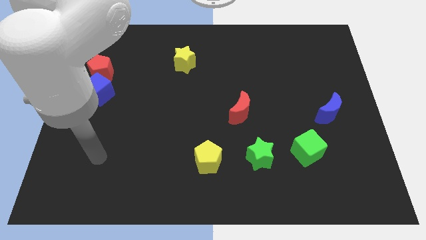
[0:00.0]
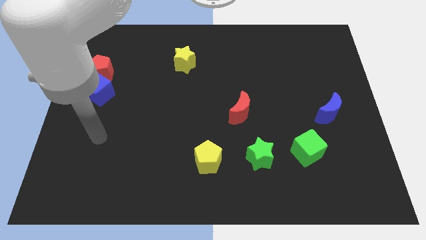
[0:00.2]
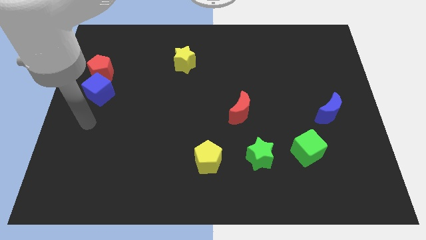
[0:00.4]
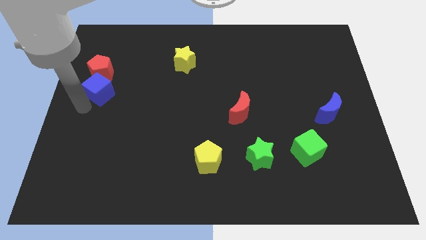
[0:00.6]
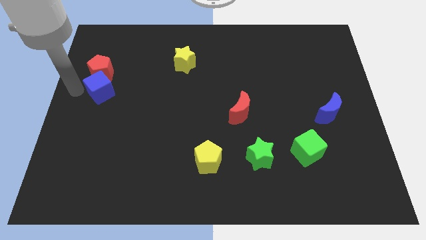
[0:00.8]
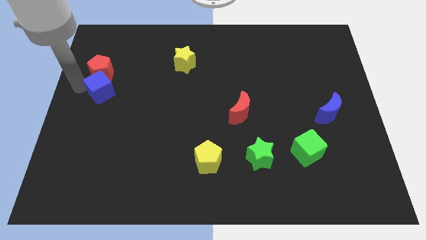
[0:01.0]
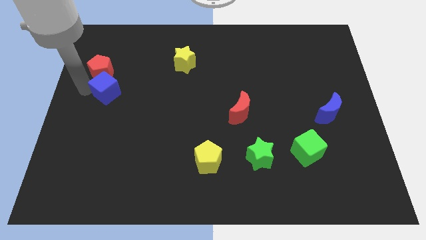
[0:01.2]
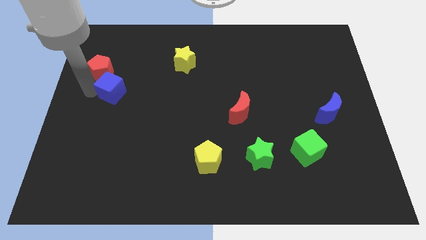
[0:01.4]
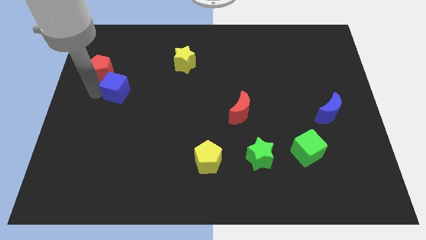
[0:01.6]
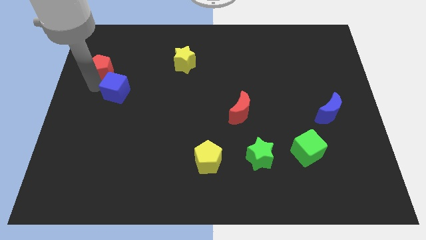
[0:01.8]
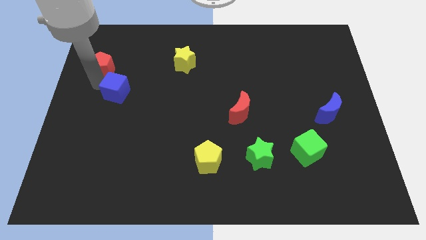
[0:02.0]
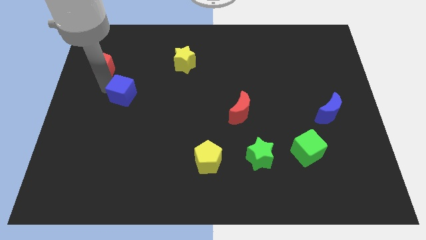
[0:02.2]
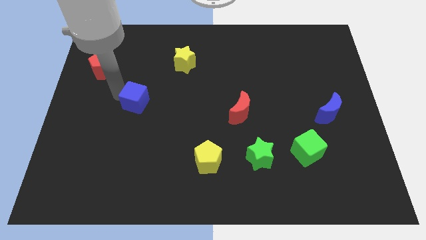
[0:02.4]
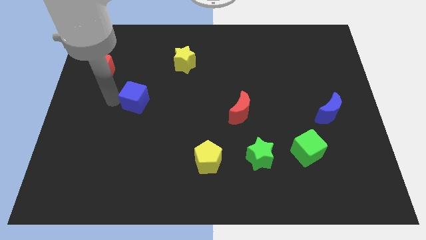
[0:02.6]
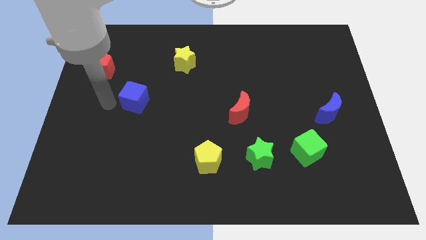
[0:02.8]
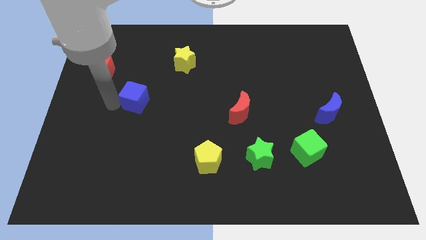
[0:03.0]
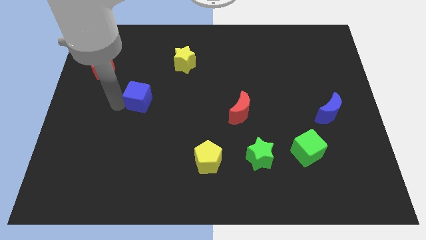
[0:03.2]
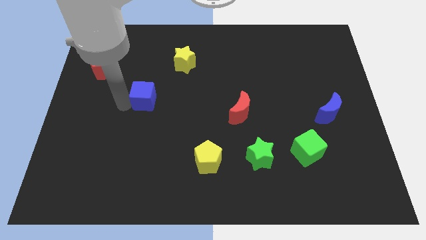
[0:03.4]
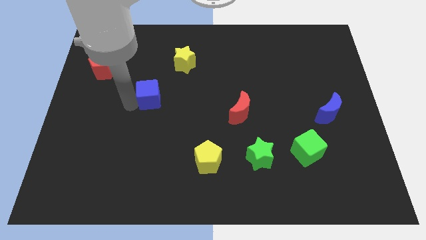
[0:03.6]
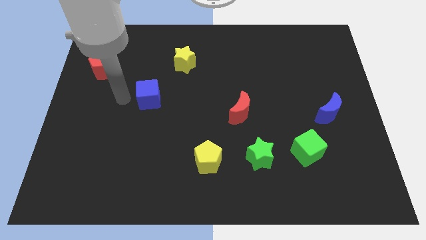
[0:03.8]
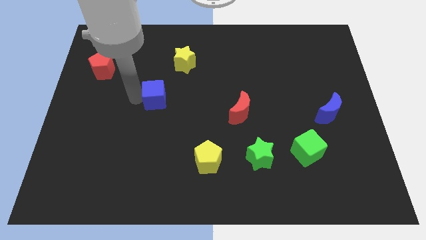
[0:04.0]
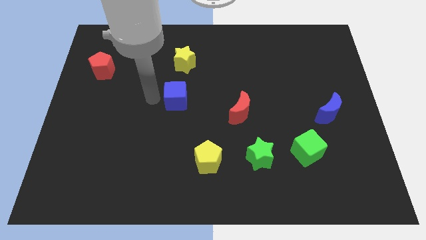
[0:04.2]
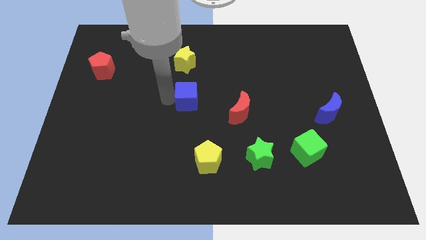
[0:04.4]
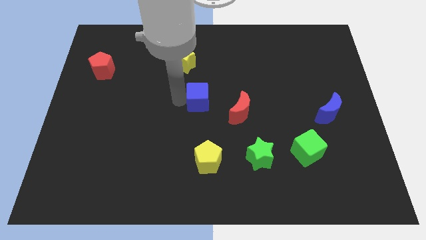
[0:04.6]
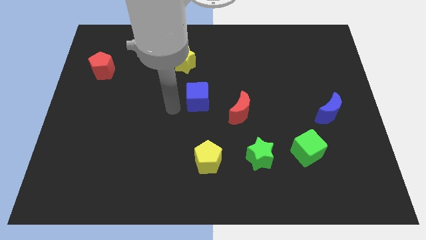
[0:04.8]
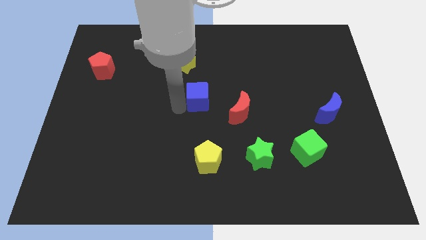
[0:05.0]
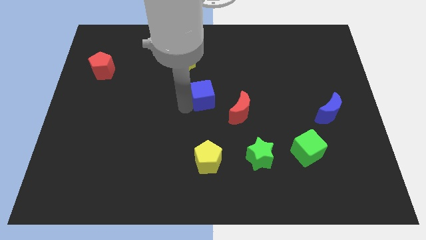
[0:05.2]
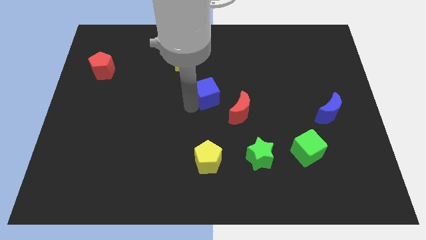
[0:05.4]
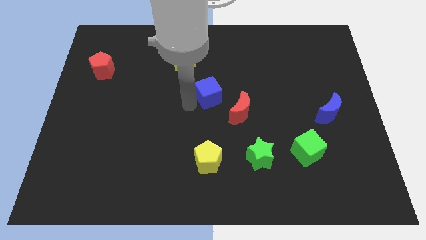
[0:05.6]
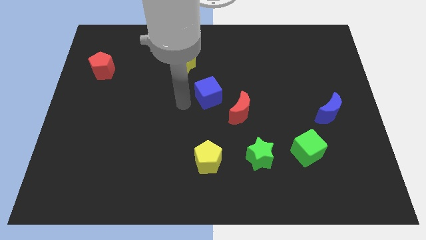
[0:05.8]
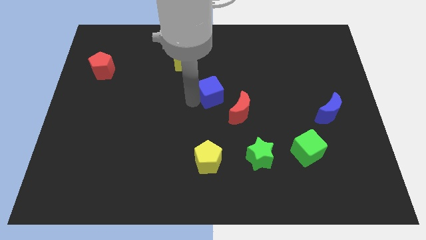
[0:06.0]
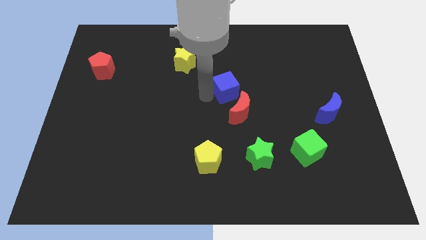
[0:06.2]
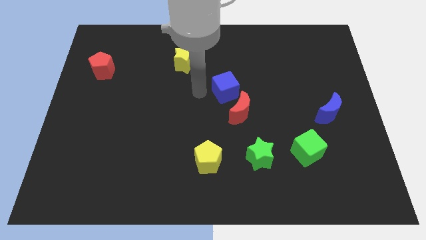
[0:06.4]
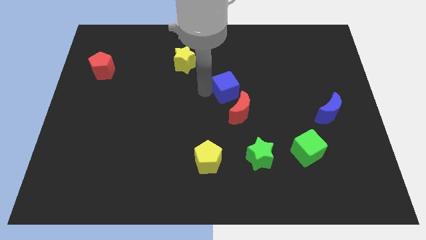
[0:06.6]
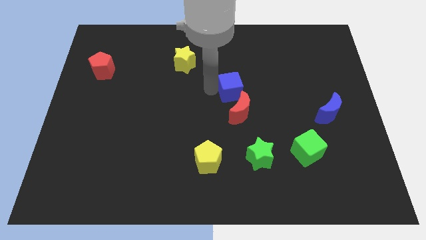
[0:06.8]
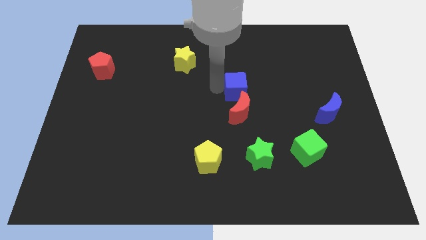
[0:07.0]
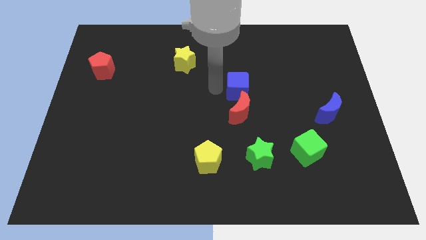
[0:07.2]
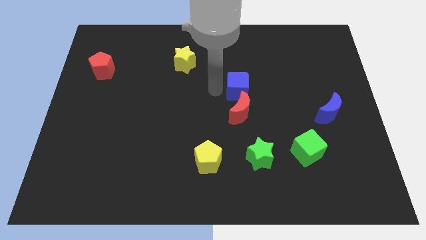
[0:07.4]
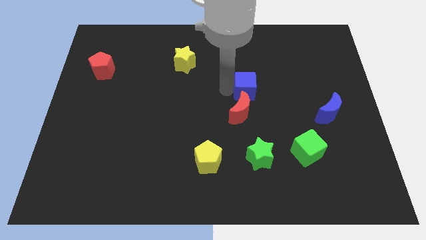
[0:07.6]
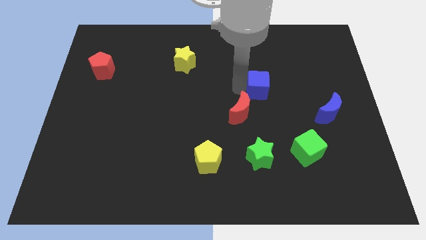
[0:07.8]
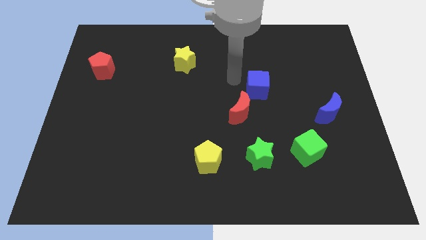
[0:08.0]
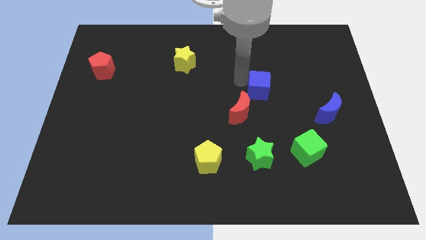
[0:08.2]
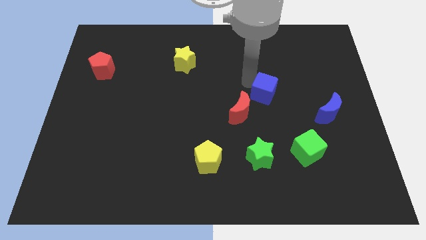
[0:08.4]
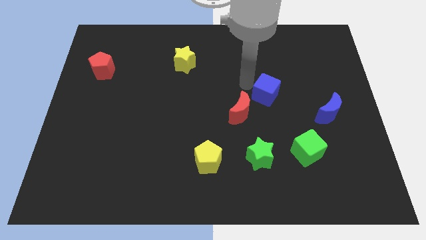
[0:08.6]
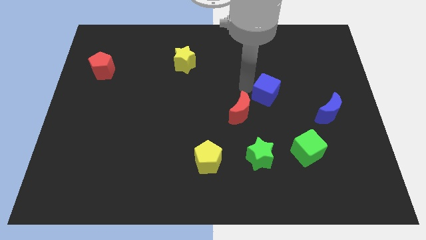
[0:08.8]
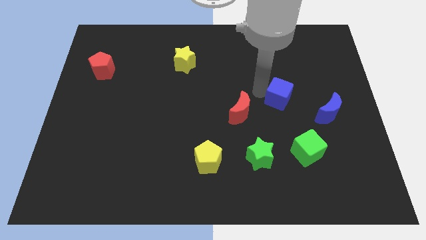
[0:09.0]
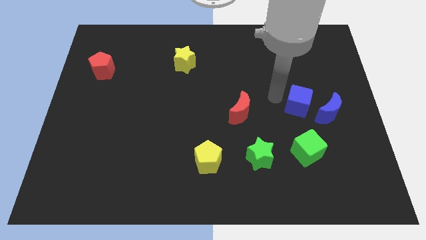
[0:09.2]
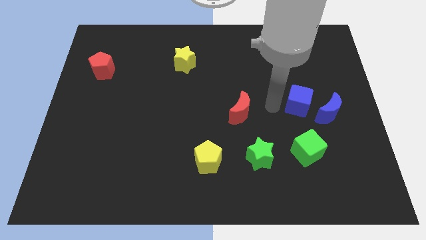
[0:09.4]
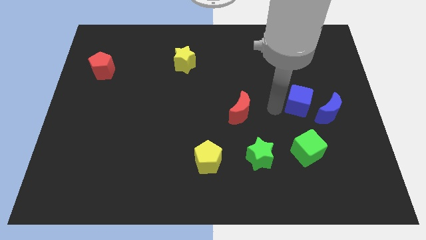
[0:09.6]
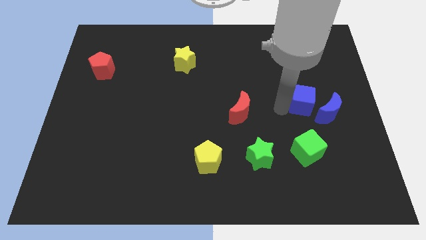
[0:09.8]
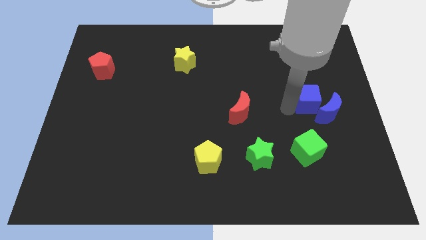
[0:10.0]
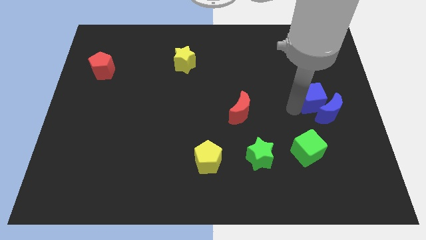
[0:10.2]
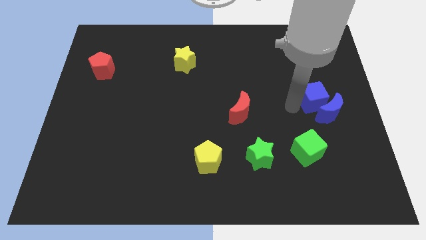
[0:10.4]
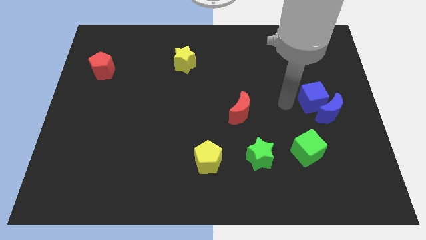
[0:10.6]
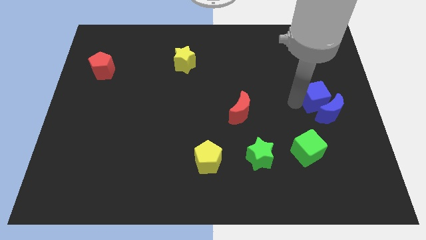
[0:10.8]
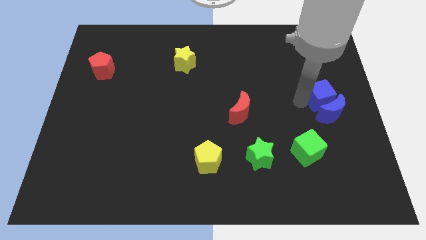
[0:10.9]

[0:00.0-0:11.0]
push the blue cube to the right side of the board
